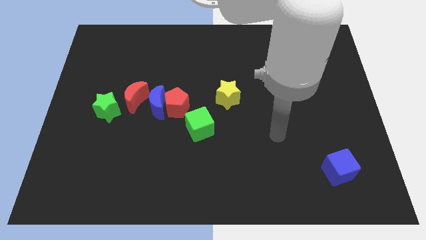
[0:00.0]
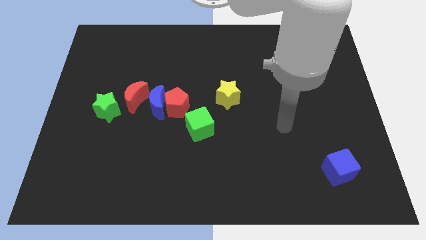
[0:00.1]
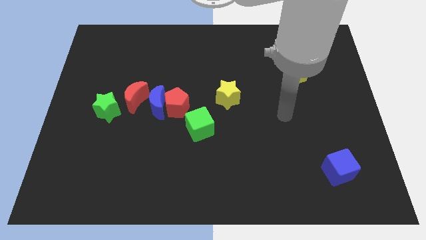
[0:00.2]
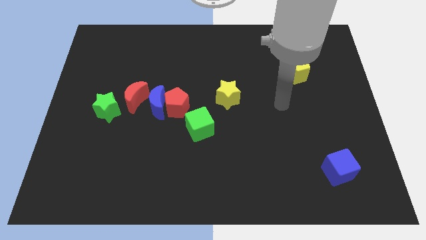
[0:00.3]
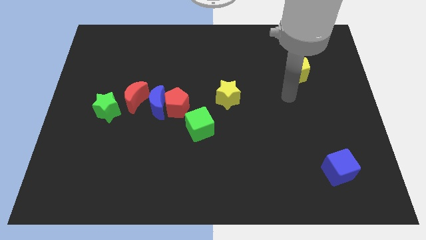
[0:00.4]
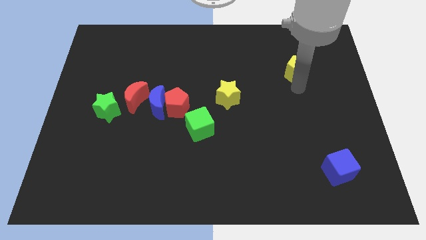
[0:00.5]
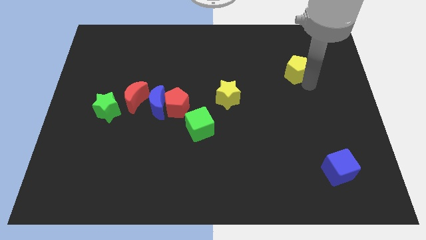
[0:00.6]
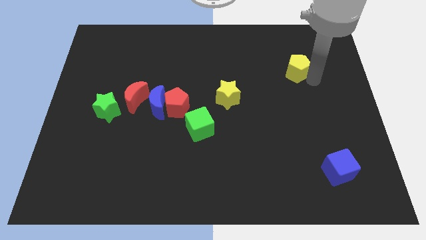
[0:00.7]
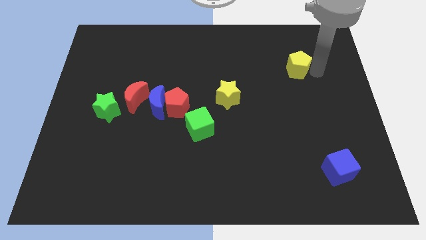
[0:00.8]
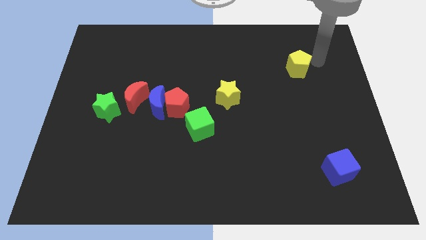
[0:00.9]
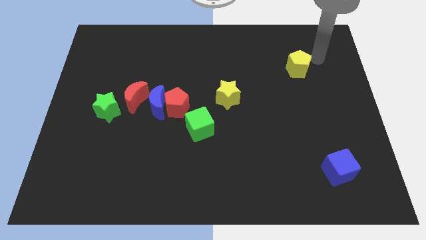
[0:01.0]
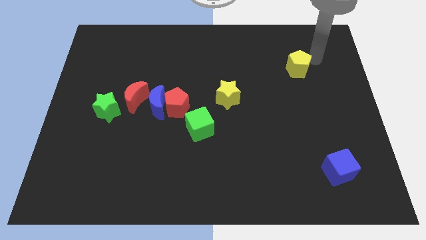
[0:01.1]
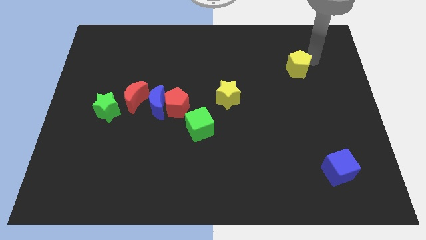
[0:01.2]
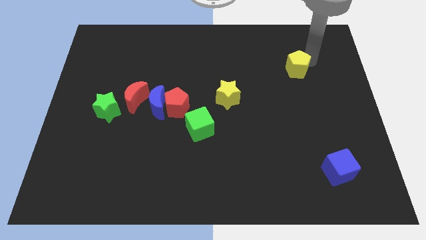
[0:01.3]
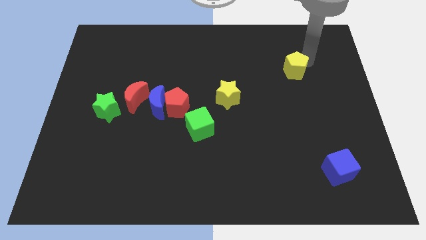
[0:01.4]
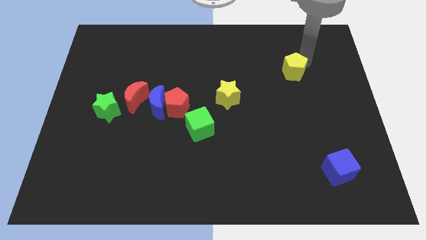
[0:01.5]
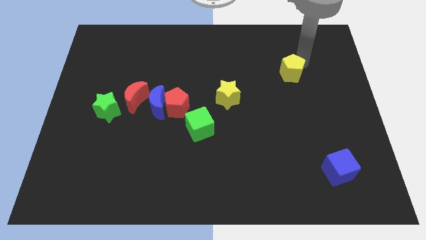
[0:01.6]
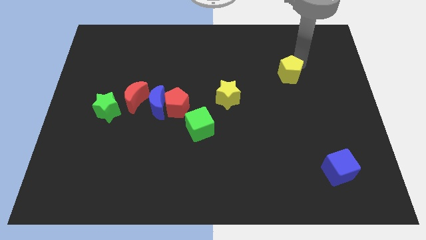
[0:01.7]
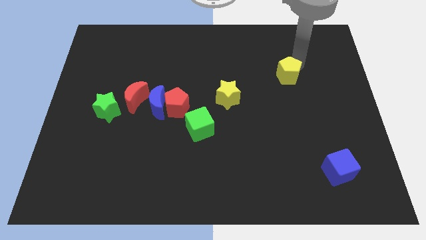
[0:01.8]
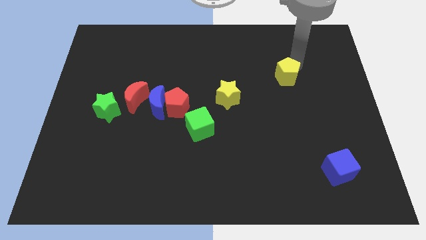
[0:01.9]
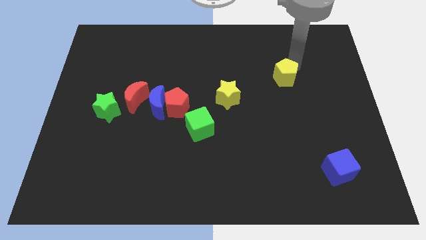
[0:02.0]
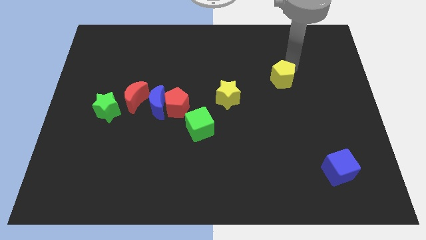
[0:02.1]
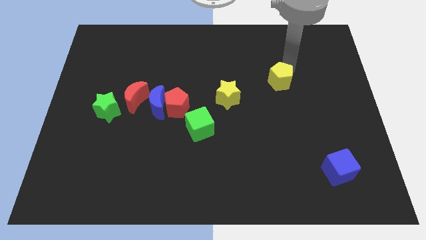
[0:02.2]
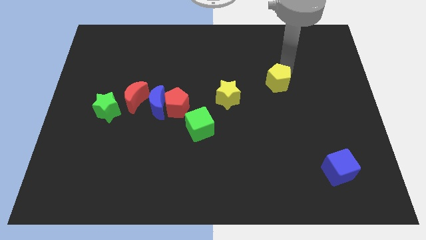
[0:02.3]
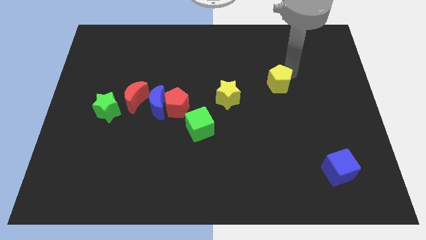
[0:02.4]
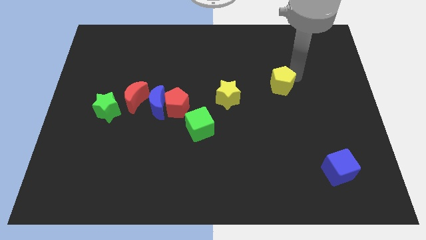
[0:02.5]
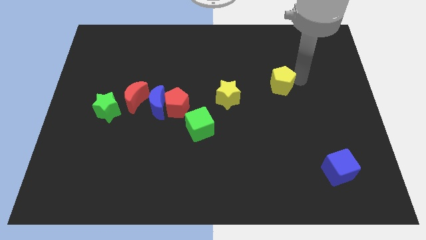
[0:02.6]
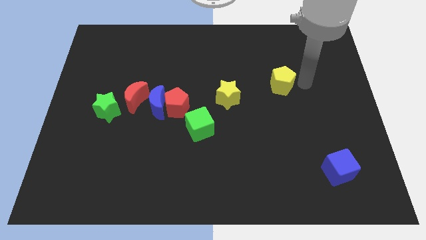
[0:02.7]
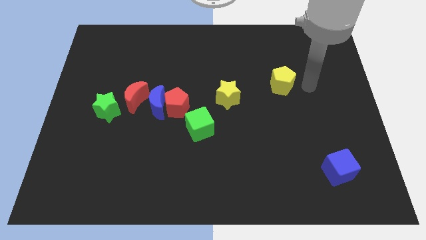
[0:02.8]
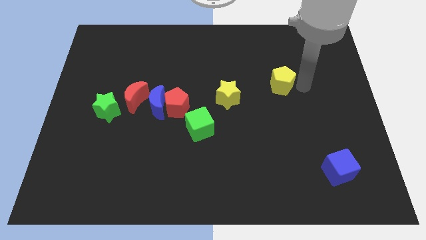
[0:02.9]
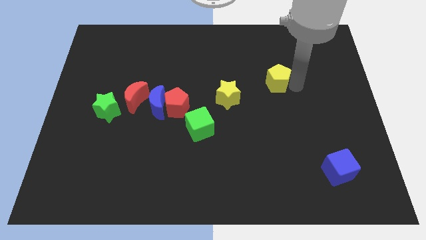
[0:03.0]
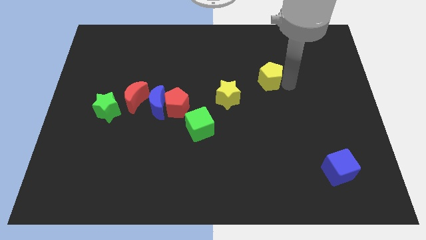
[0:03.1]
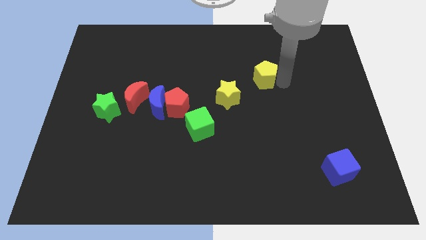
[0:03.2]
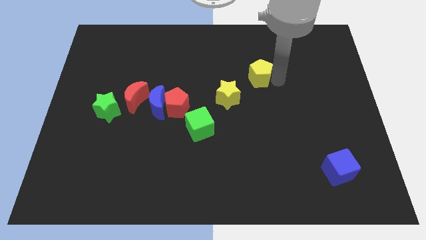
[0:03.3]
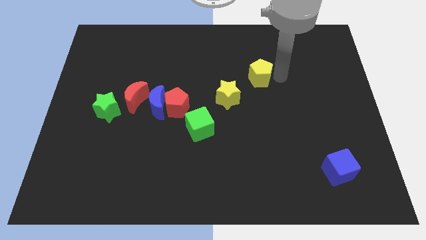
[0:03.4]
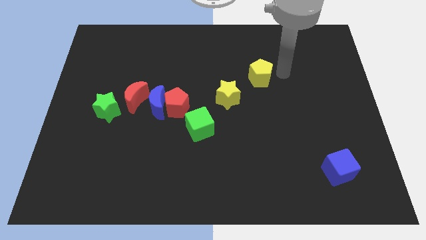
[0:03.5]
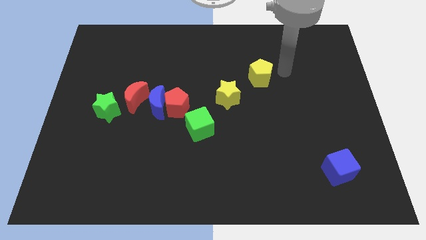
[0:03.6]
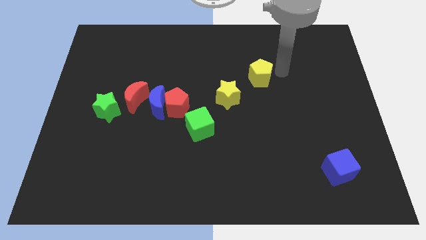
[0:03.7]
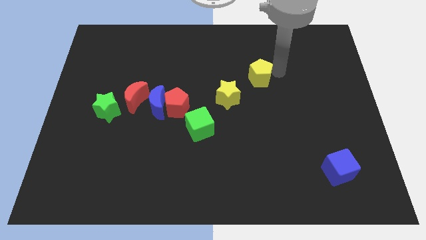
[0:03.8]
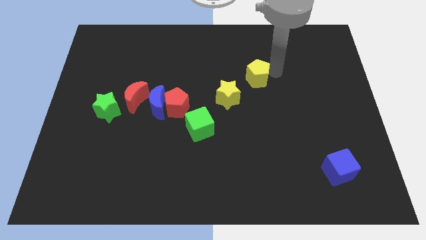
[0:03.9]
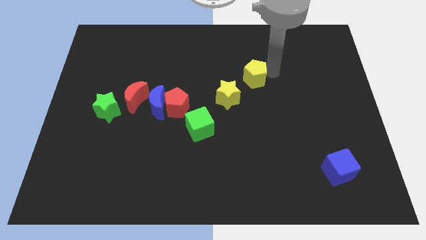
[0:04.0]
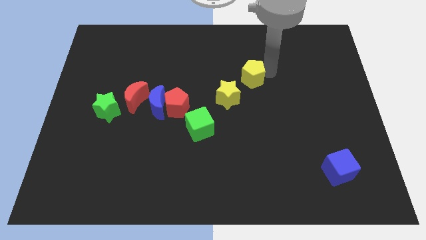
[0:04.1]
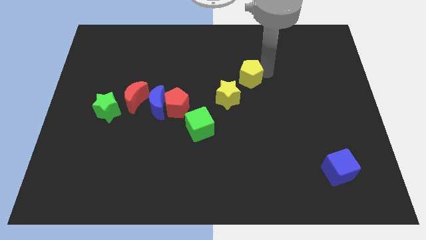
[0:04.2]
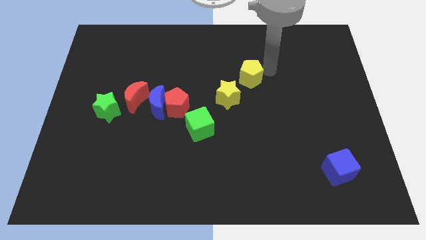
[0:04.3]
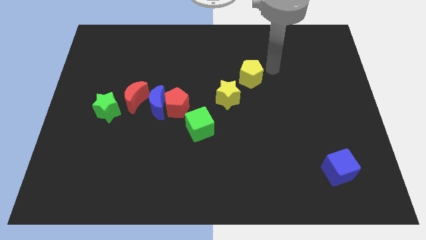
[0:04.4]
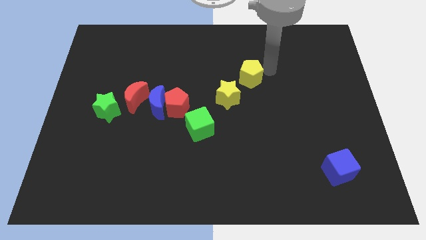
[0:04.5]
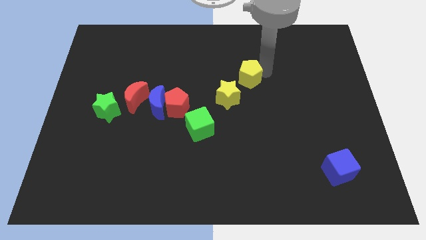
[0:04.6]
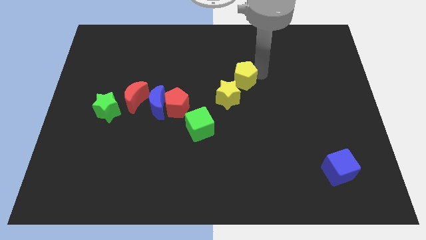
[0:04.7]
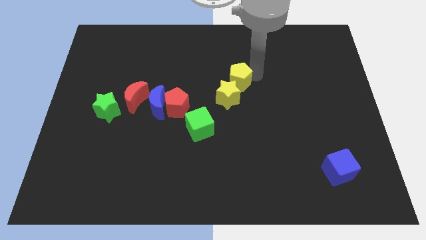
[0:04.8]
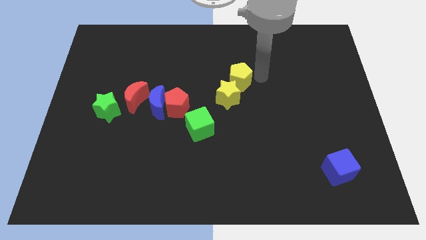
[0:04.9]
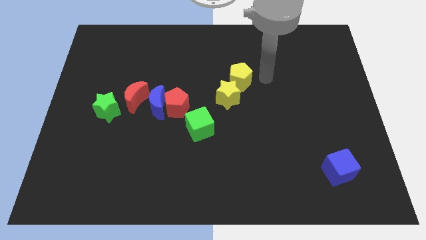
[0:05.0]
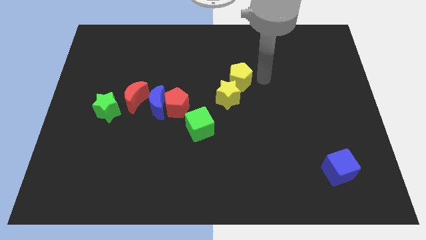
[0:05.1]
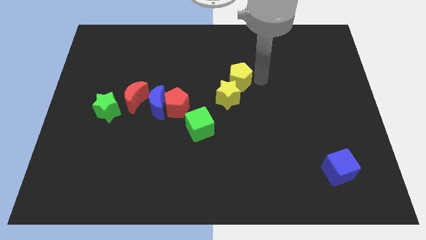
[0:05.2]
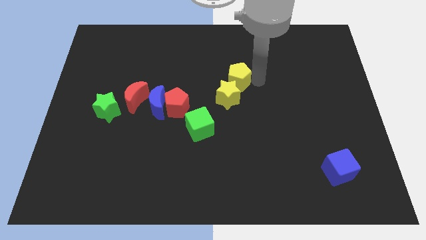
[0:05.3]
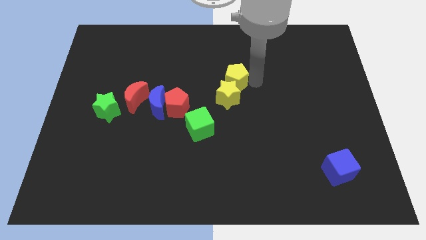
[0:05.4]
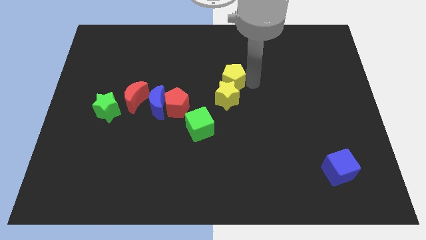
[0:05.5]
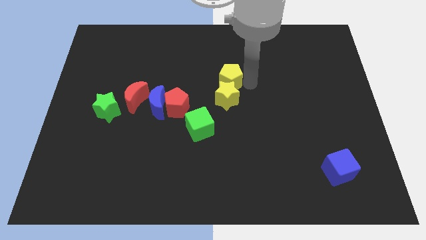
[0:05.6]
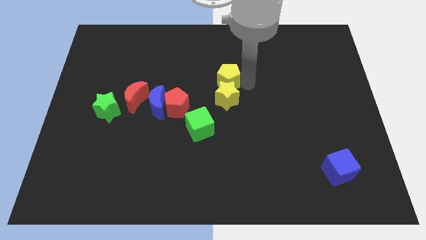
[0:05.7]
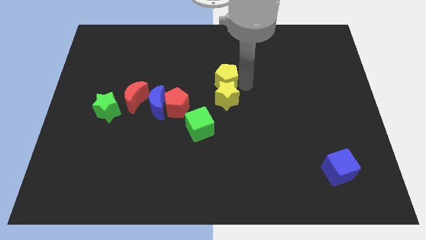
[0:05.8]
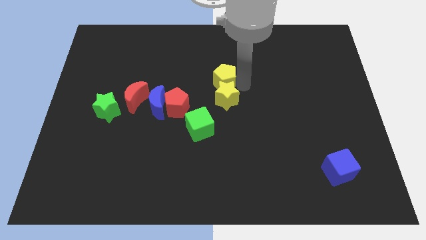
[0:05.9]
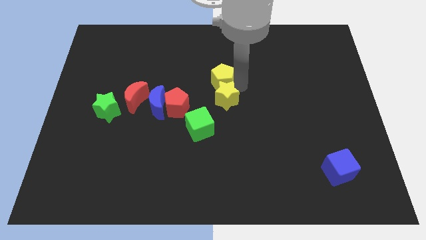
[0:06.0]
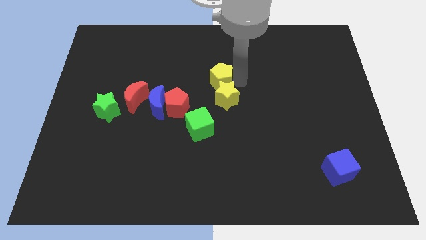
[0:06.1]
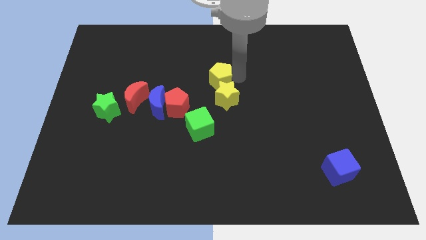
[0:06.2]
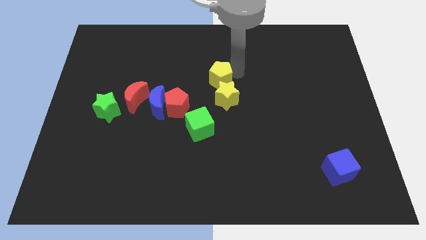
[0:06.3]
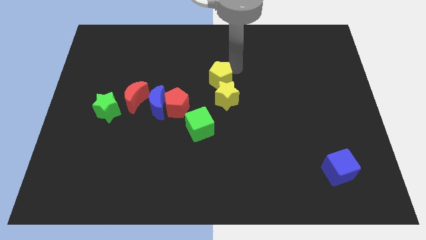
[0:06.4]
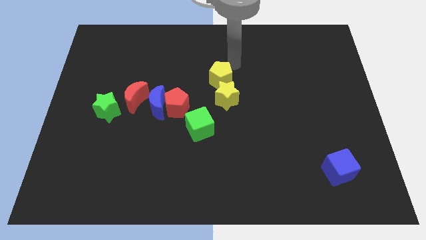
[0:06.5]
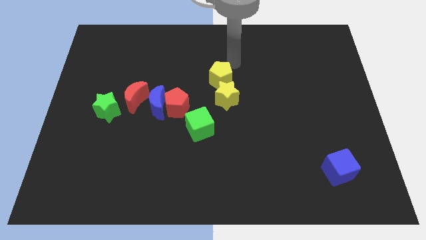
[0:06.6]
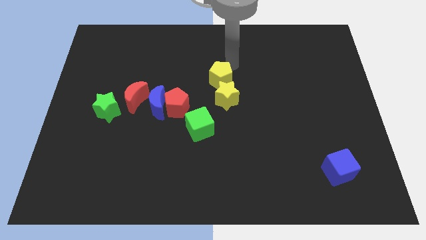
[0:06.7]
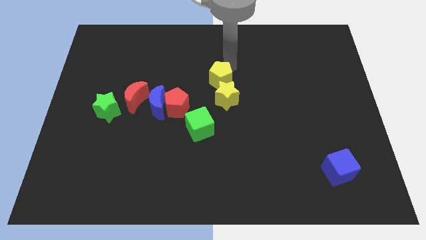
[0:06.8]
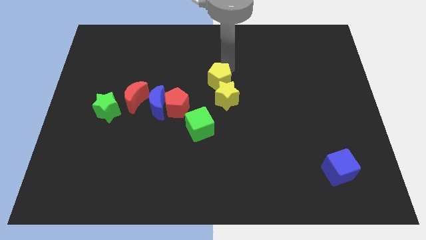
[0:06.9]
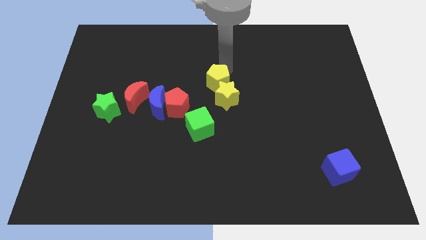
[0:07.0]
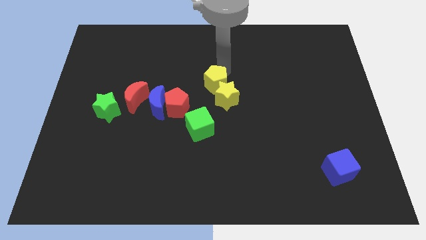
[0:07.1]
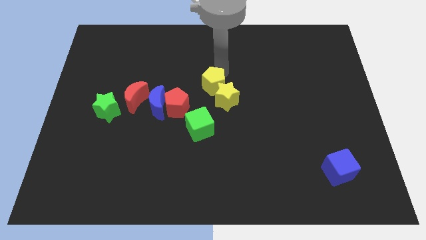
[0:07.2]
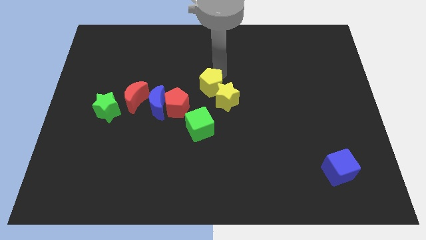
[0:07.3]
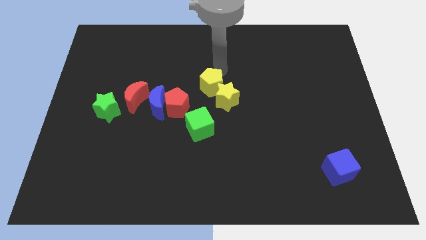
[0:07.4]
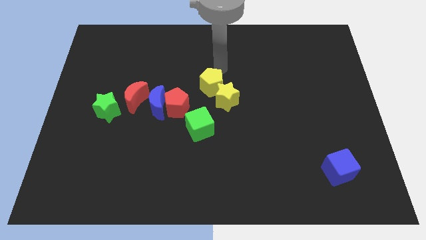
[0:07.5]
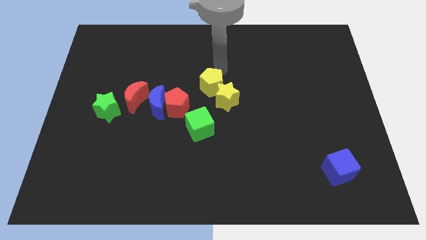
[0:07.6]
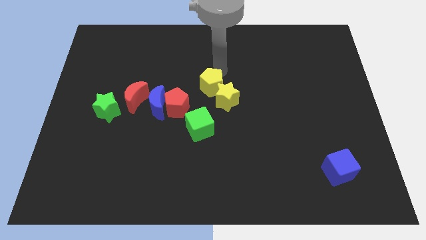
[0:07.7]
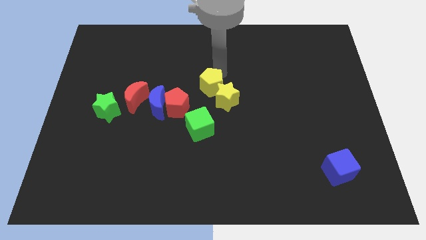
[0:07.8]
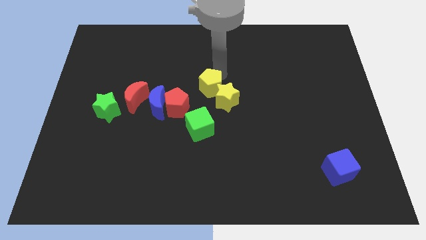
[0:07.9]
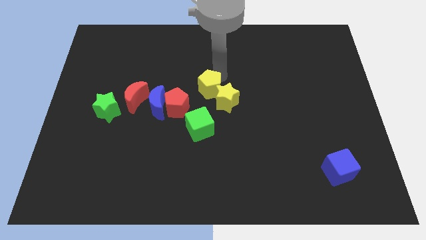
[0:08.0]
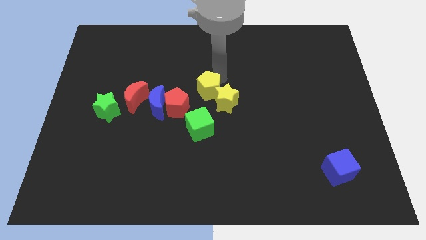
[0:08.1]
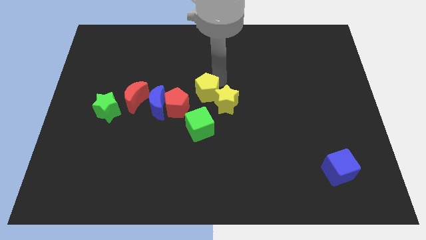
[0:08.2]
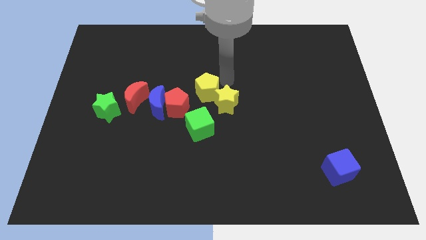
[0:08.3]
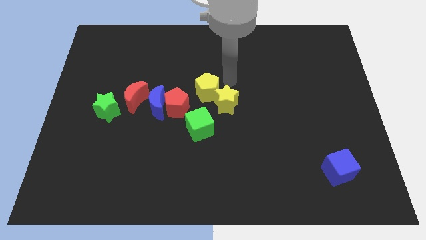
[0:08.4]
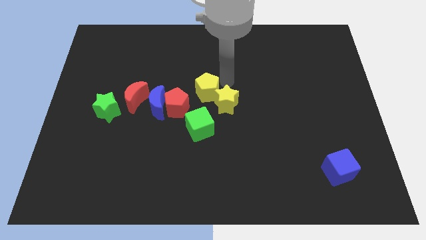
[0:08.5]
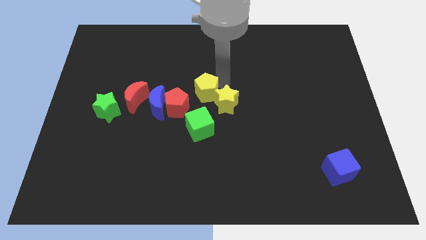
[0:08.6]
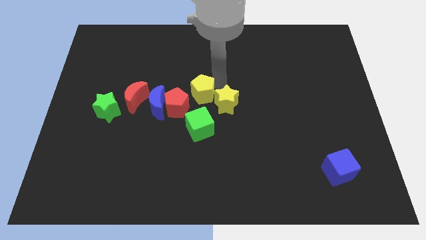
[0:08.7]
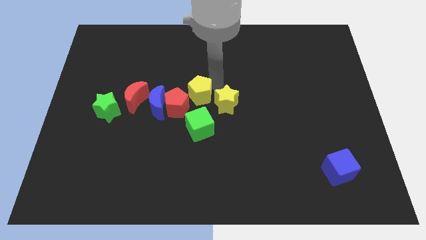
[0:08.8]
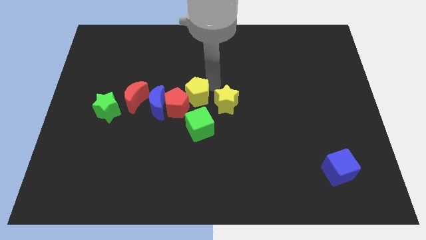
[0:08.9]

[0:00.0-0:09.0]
move the yellow pentagon close to the red pentagon
